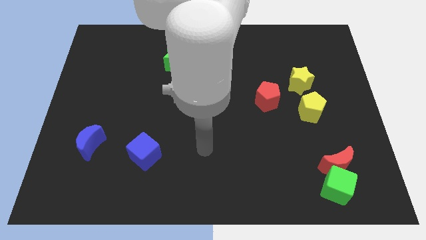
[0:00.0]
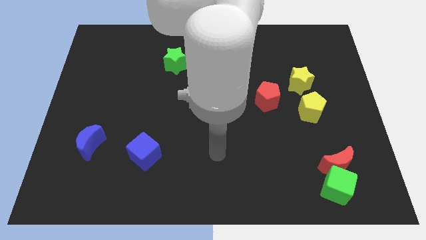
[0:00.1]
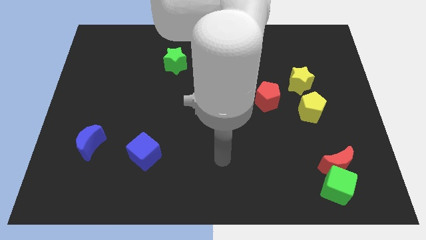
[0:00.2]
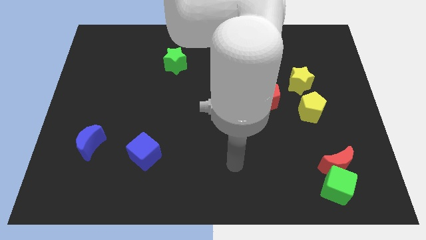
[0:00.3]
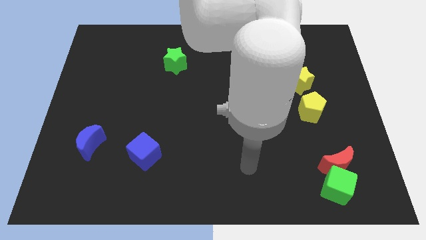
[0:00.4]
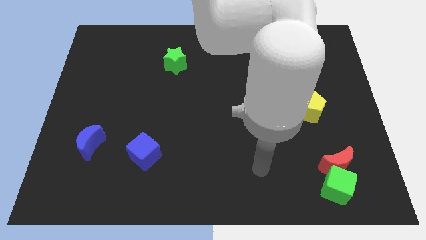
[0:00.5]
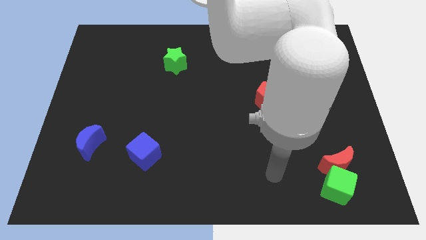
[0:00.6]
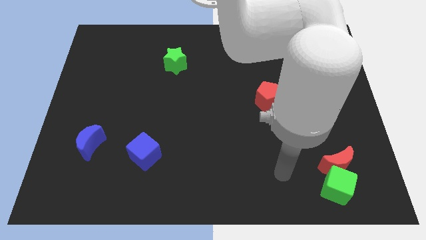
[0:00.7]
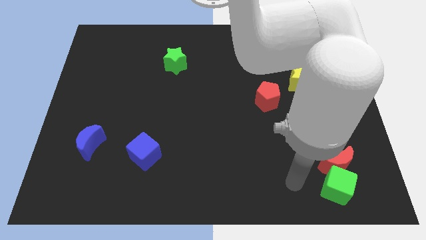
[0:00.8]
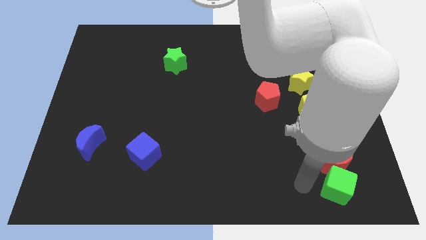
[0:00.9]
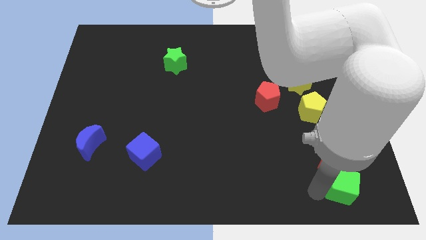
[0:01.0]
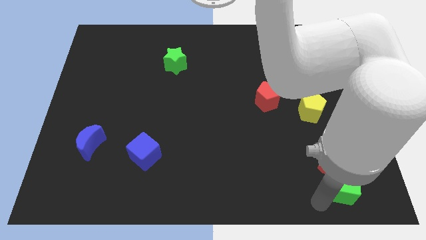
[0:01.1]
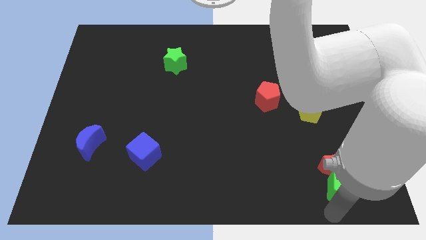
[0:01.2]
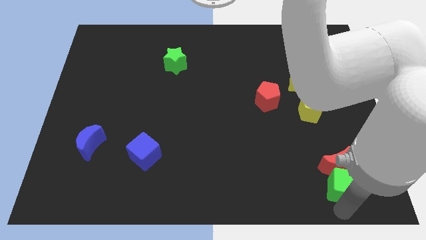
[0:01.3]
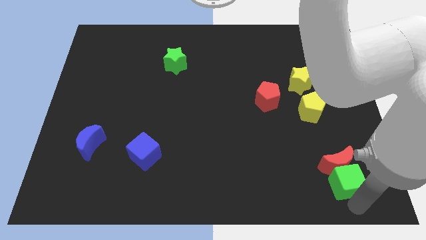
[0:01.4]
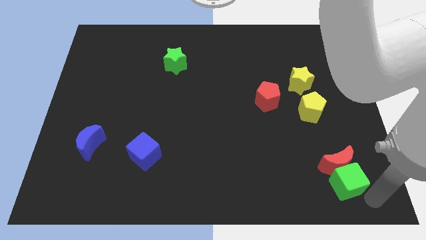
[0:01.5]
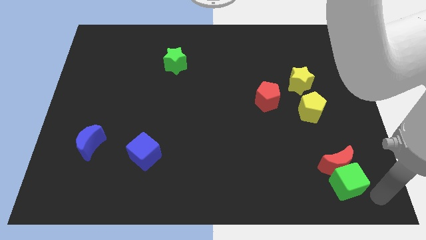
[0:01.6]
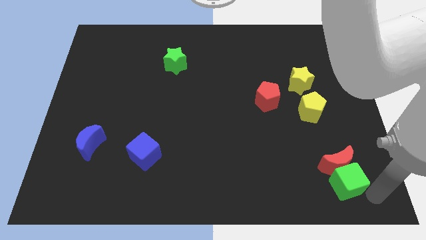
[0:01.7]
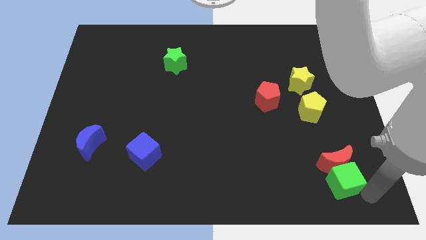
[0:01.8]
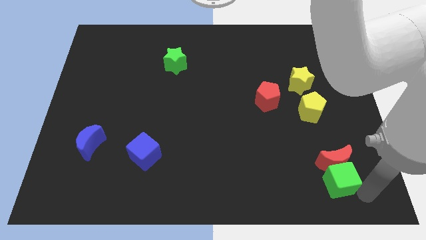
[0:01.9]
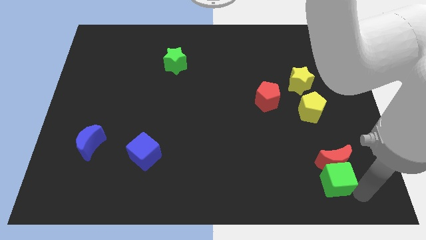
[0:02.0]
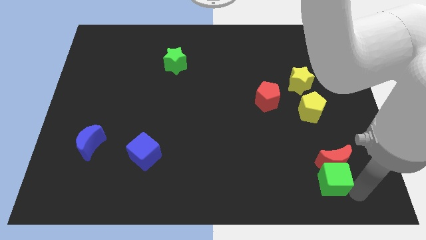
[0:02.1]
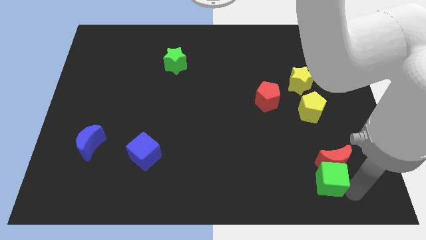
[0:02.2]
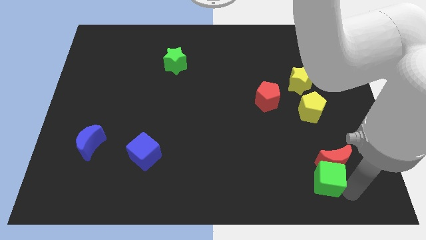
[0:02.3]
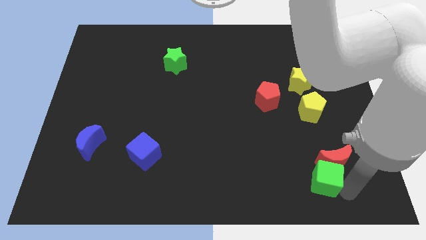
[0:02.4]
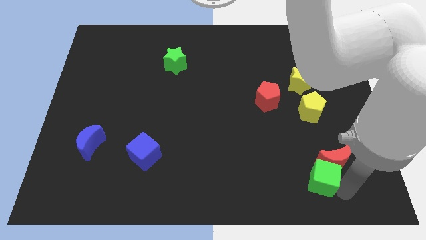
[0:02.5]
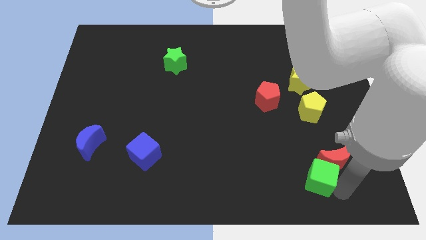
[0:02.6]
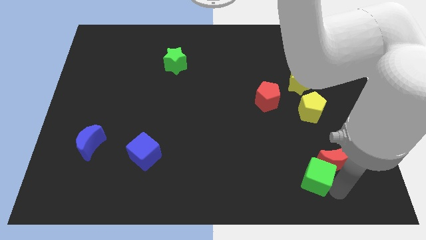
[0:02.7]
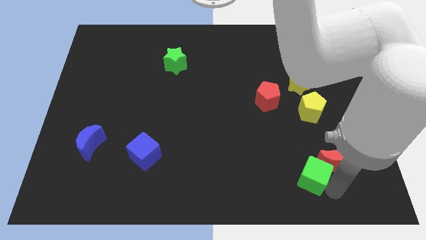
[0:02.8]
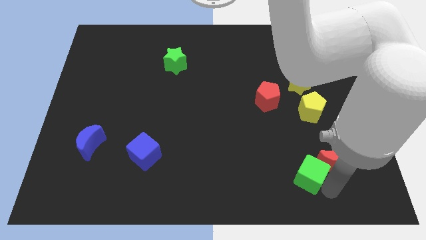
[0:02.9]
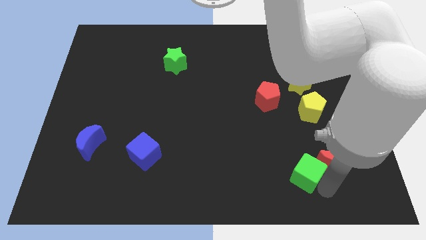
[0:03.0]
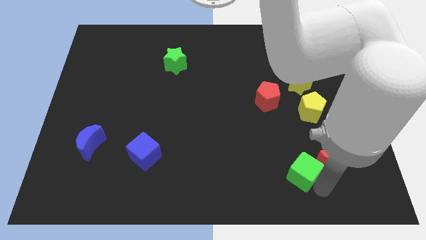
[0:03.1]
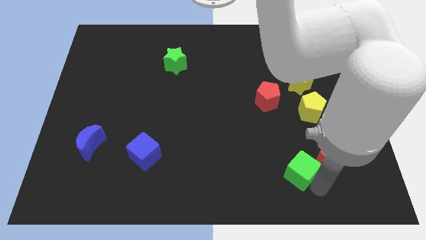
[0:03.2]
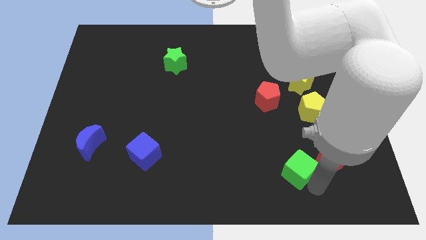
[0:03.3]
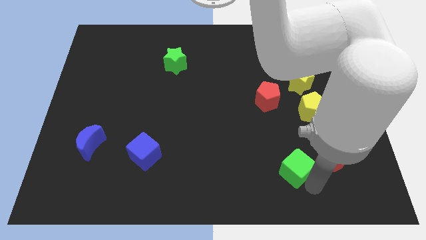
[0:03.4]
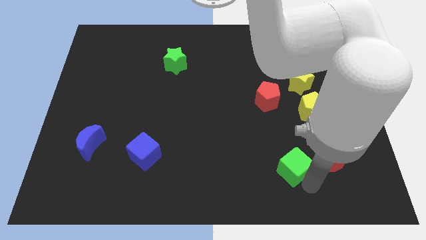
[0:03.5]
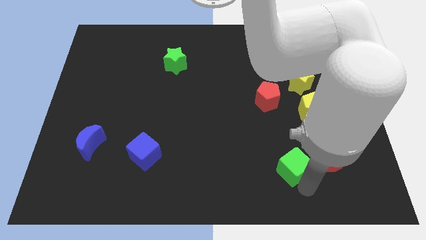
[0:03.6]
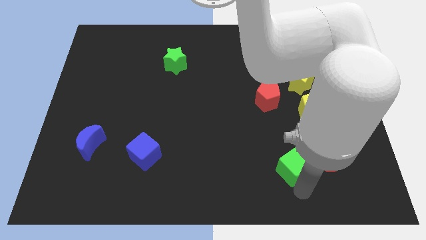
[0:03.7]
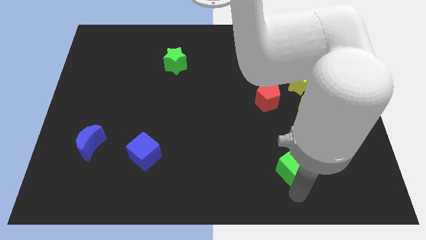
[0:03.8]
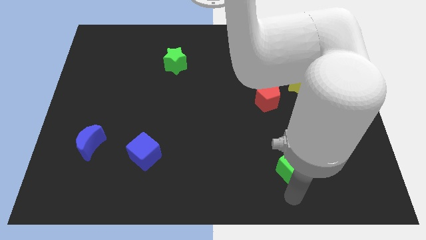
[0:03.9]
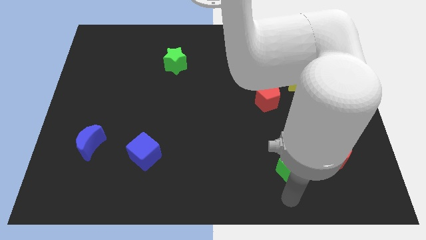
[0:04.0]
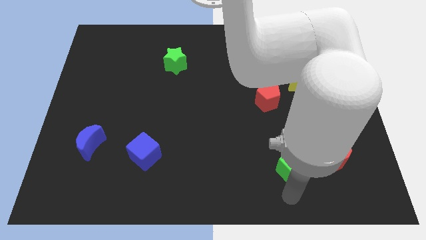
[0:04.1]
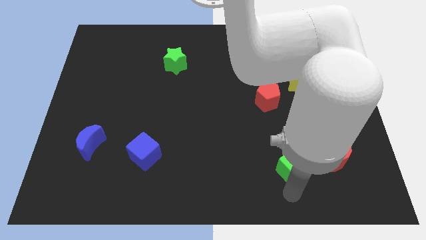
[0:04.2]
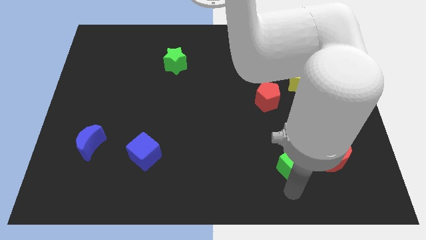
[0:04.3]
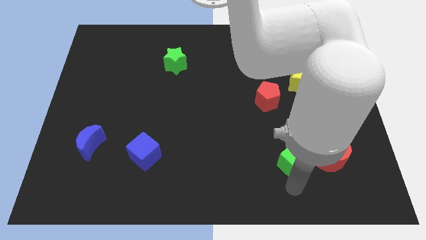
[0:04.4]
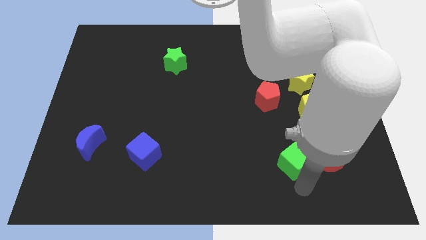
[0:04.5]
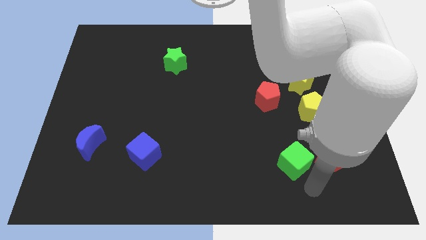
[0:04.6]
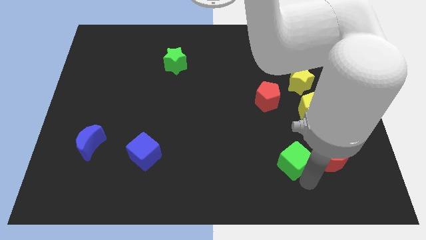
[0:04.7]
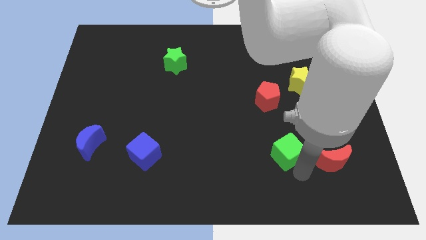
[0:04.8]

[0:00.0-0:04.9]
slide the green cube to the bottom side of the red pentagon

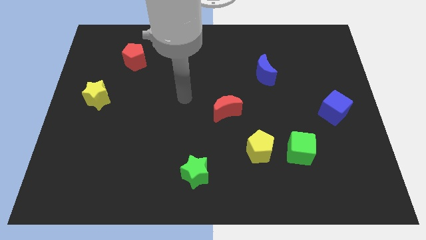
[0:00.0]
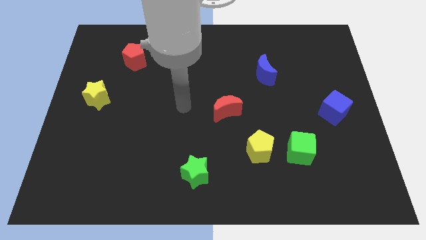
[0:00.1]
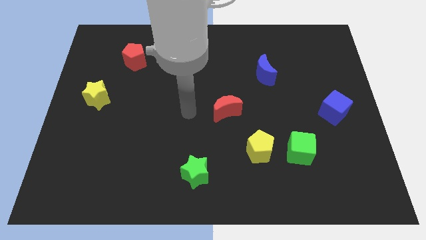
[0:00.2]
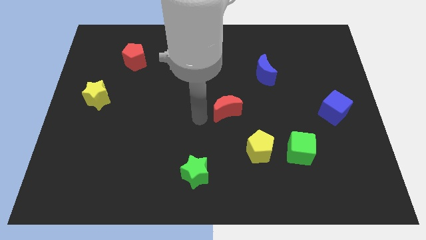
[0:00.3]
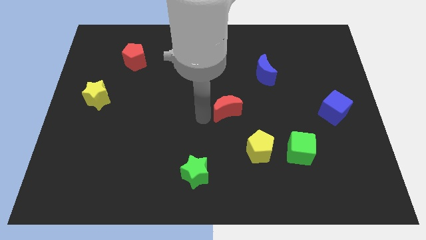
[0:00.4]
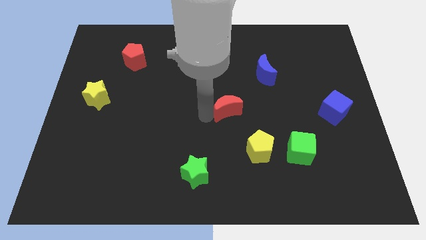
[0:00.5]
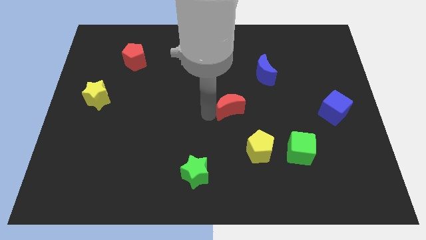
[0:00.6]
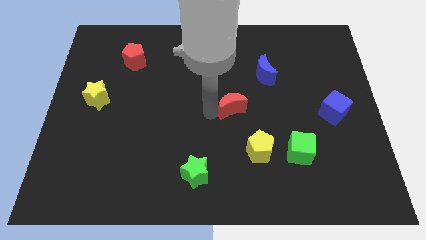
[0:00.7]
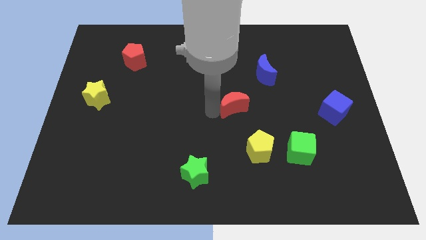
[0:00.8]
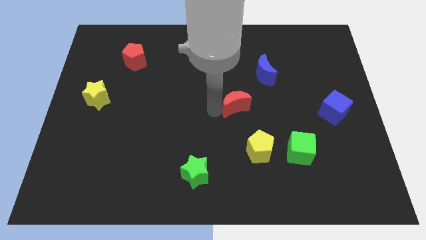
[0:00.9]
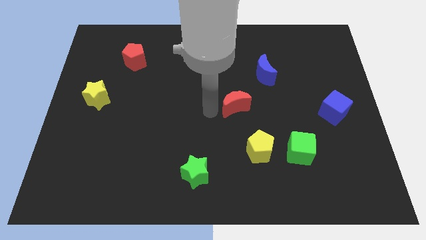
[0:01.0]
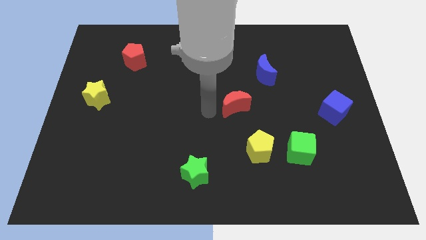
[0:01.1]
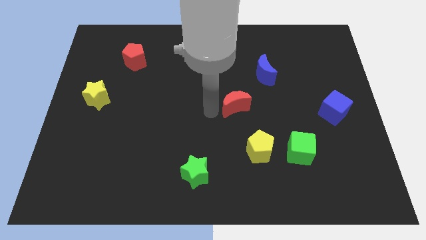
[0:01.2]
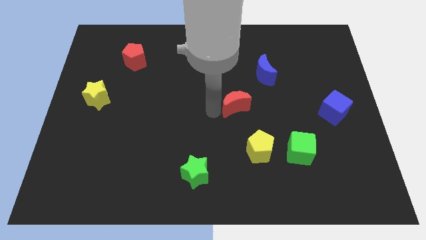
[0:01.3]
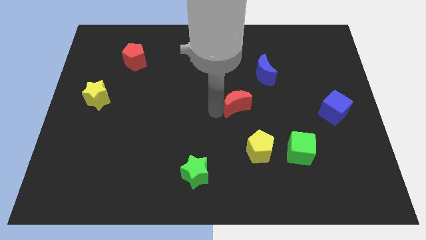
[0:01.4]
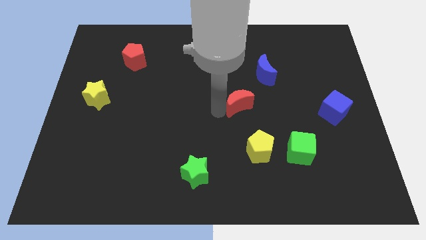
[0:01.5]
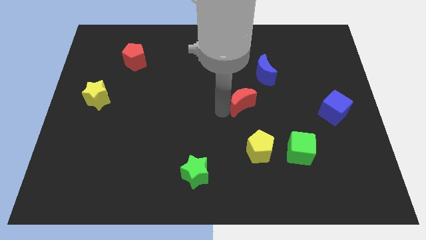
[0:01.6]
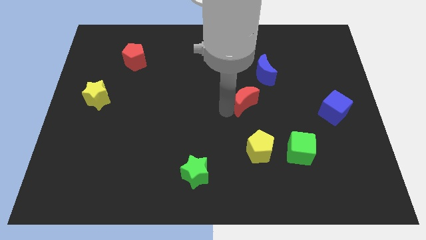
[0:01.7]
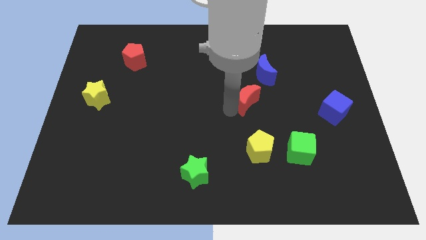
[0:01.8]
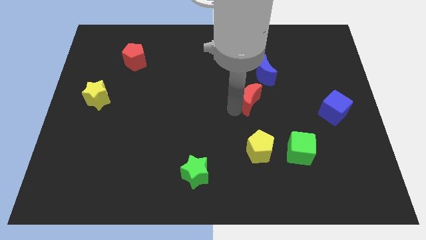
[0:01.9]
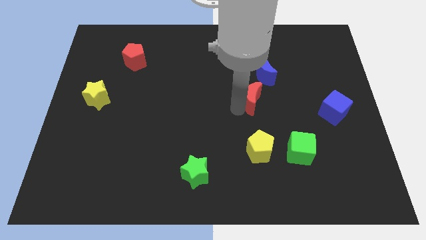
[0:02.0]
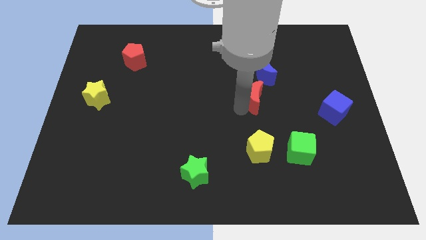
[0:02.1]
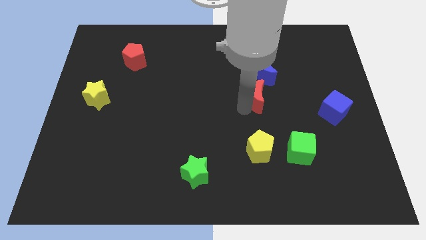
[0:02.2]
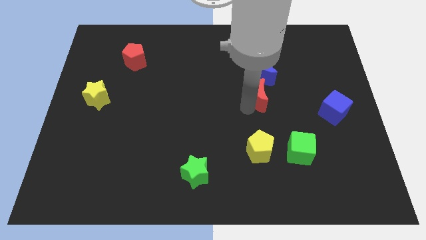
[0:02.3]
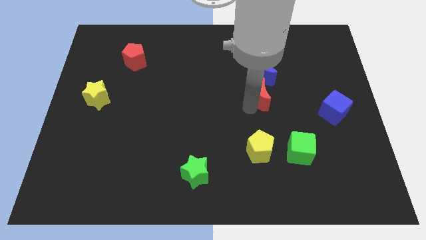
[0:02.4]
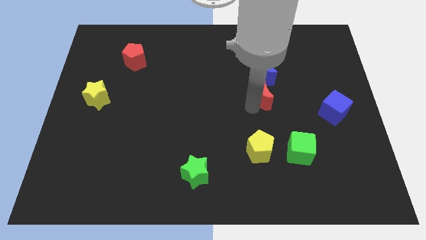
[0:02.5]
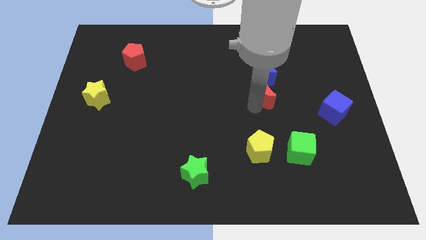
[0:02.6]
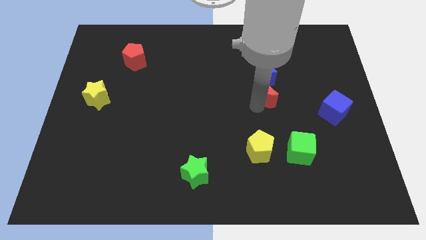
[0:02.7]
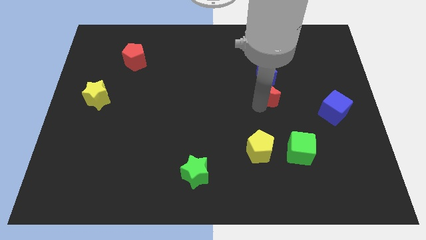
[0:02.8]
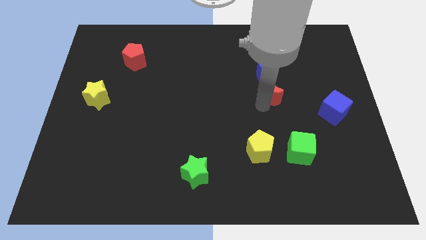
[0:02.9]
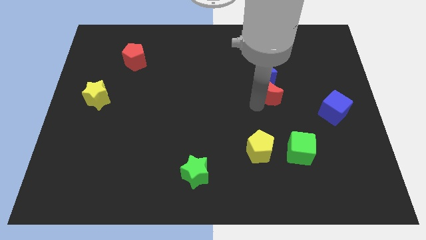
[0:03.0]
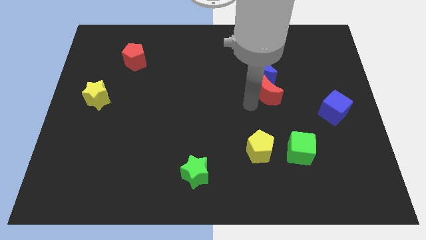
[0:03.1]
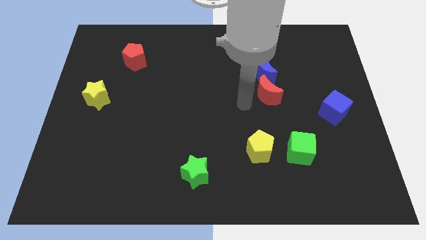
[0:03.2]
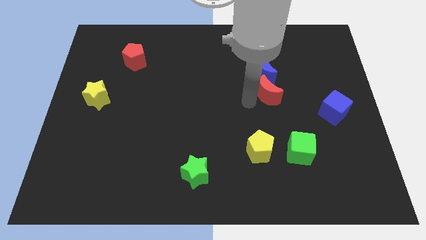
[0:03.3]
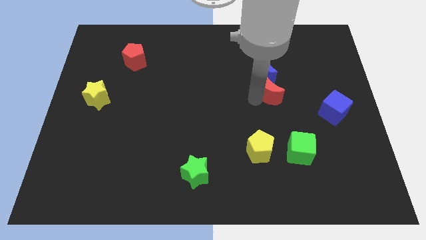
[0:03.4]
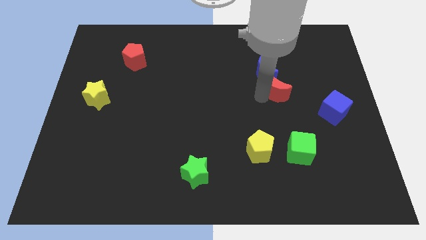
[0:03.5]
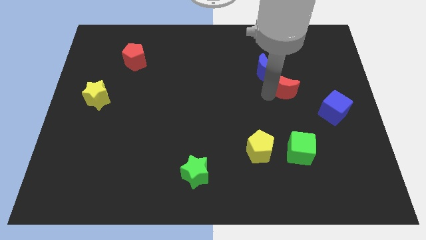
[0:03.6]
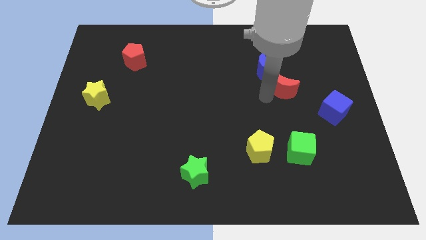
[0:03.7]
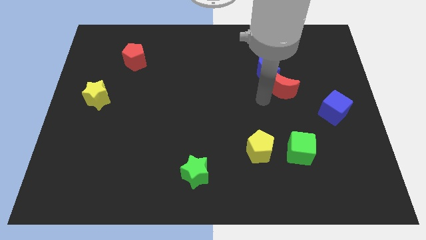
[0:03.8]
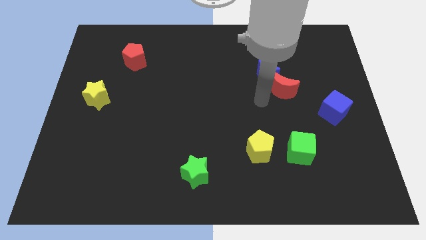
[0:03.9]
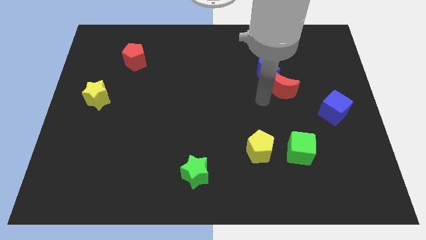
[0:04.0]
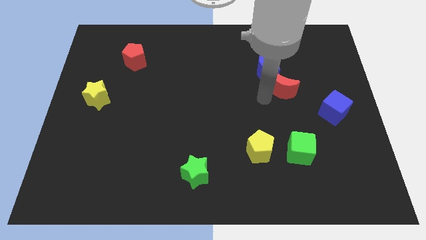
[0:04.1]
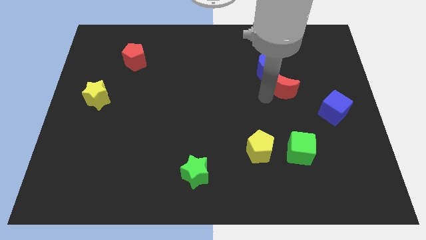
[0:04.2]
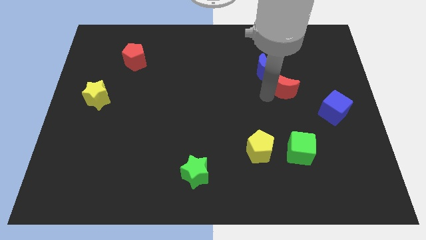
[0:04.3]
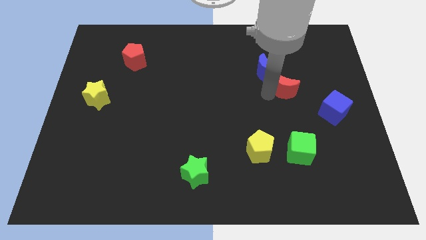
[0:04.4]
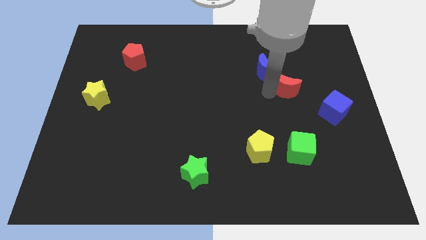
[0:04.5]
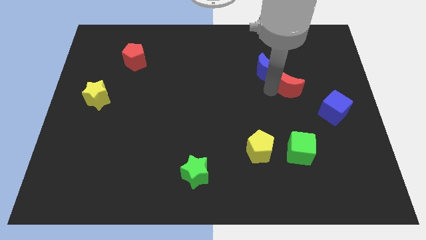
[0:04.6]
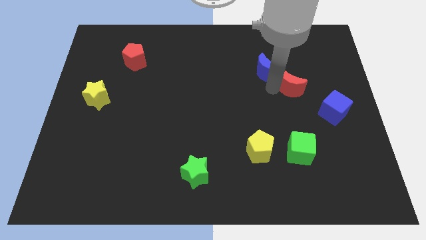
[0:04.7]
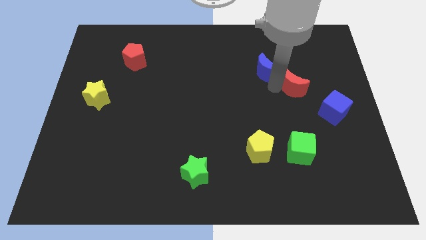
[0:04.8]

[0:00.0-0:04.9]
move the red moon just right of the blue moon
